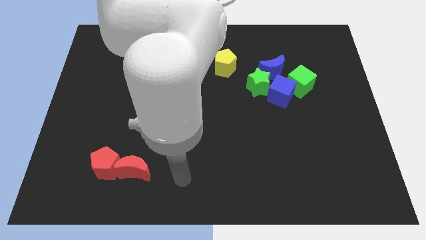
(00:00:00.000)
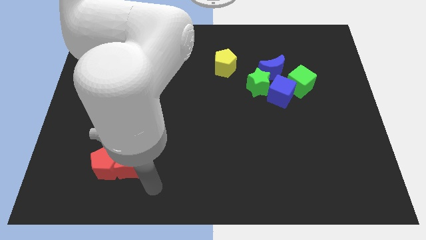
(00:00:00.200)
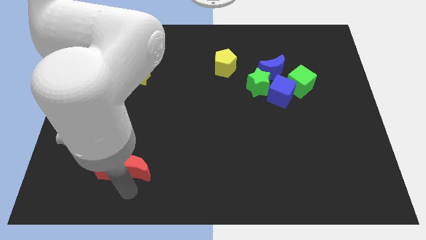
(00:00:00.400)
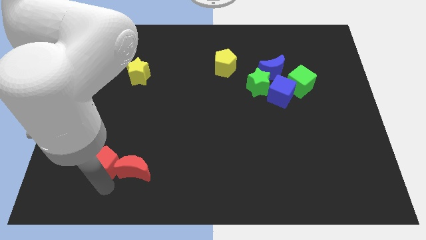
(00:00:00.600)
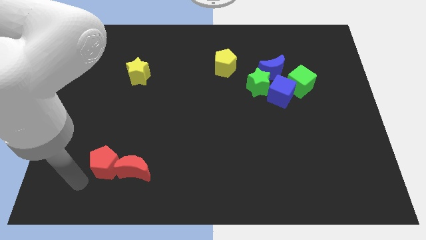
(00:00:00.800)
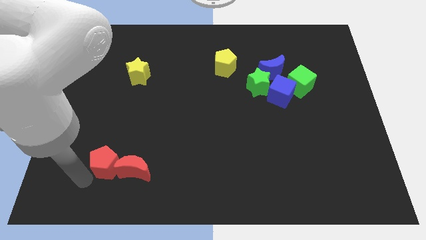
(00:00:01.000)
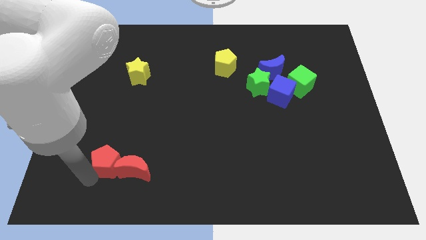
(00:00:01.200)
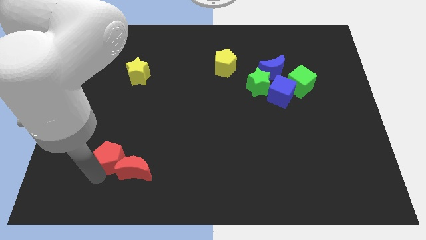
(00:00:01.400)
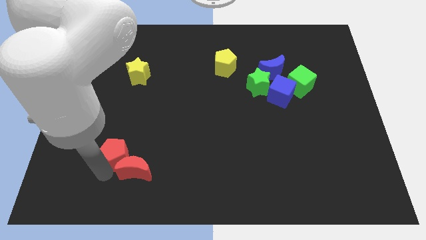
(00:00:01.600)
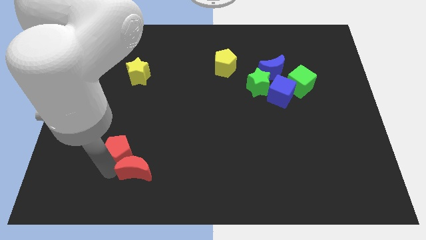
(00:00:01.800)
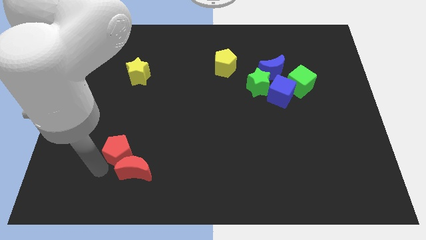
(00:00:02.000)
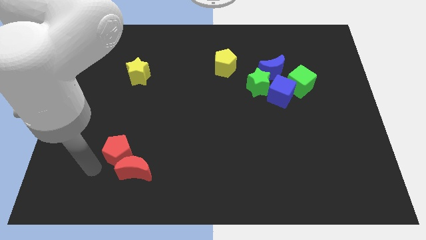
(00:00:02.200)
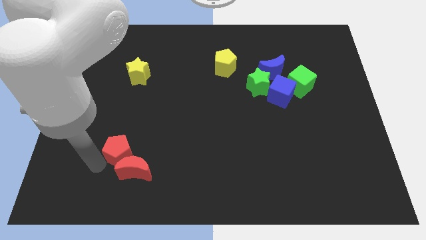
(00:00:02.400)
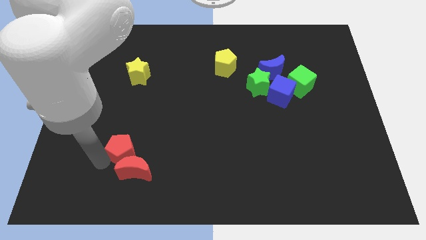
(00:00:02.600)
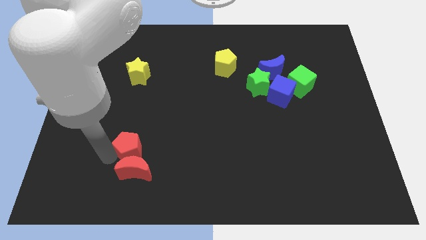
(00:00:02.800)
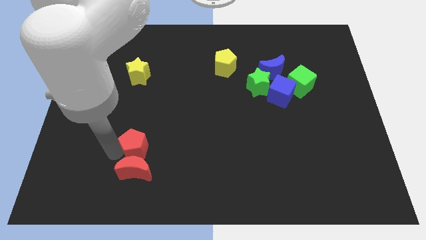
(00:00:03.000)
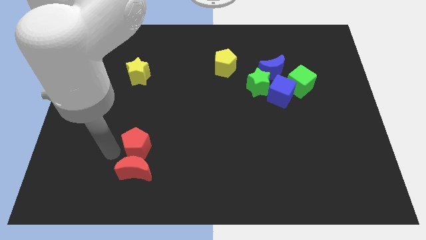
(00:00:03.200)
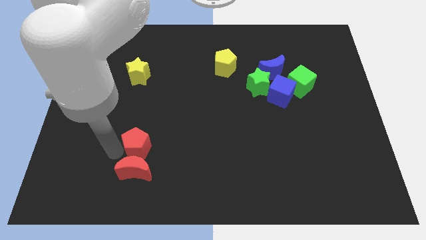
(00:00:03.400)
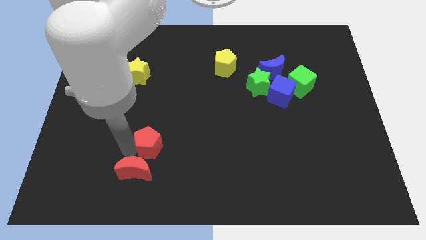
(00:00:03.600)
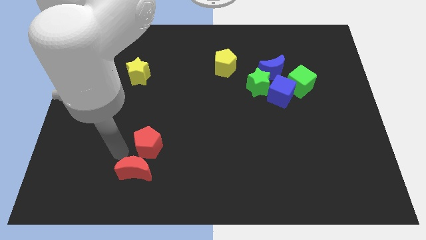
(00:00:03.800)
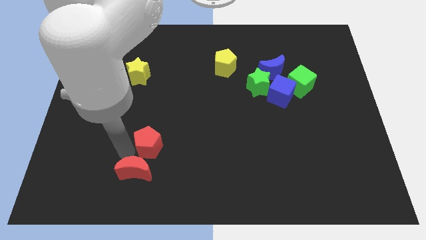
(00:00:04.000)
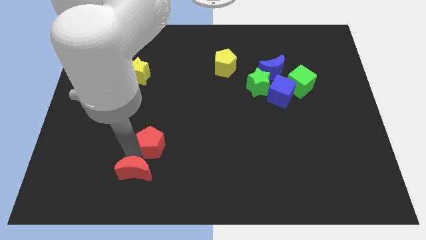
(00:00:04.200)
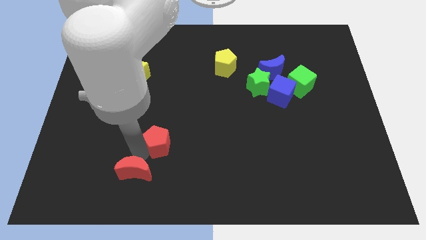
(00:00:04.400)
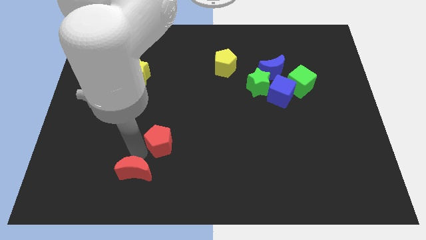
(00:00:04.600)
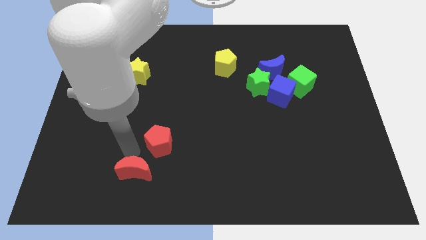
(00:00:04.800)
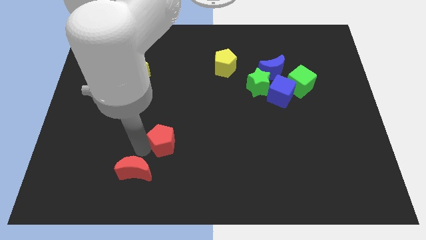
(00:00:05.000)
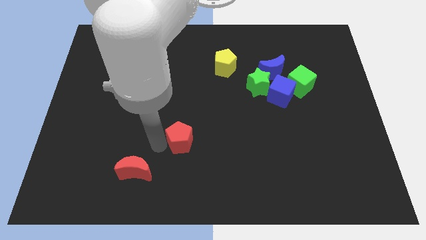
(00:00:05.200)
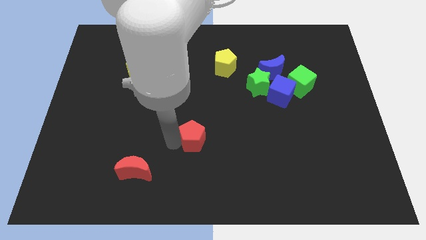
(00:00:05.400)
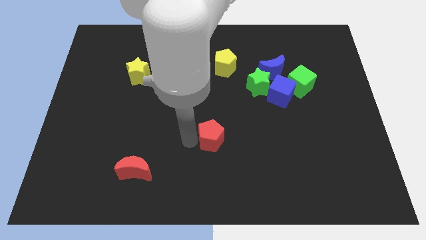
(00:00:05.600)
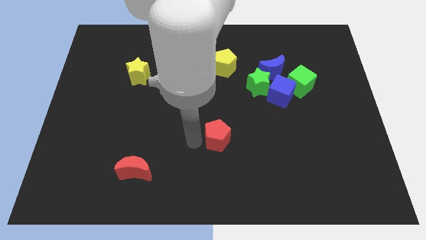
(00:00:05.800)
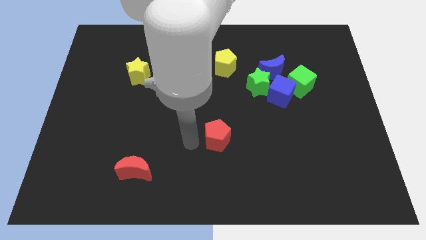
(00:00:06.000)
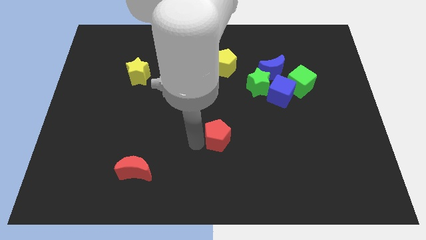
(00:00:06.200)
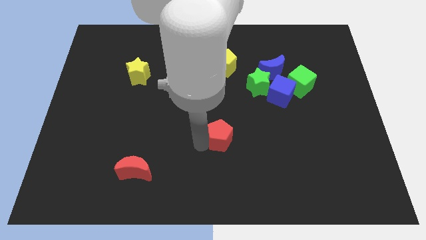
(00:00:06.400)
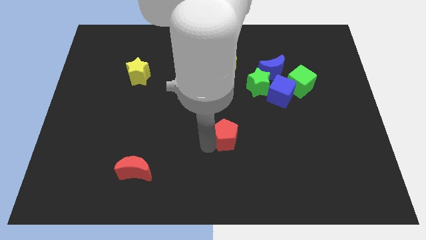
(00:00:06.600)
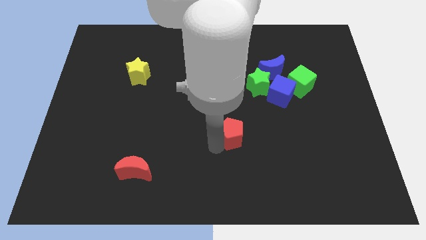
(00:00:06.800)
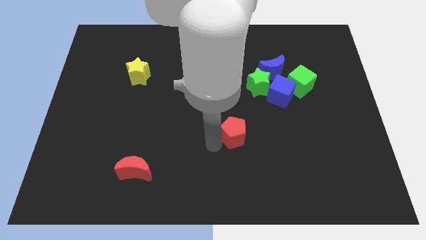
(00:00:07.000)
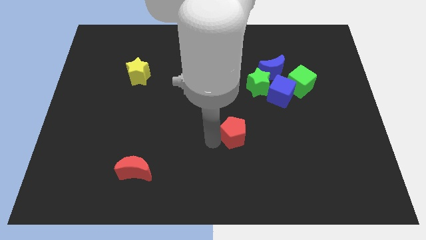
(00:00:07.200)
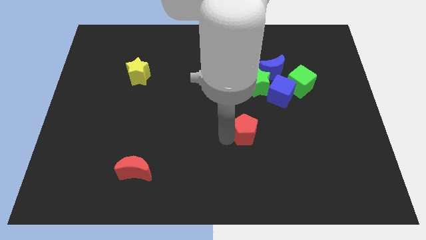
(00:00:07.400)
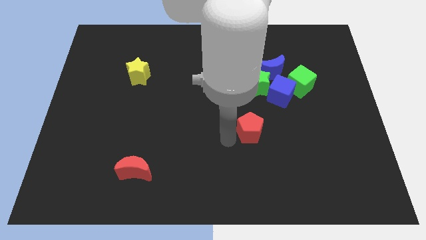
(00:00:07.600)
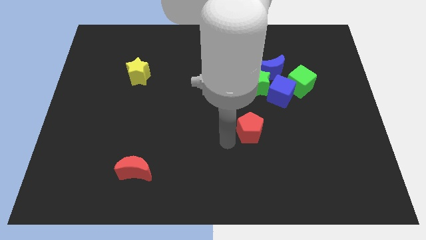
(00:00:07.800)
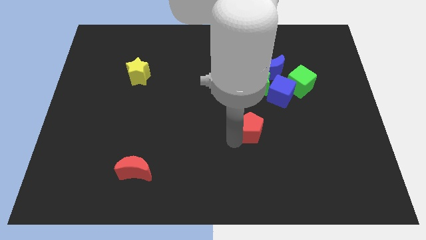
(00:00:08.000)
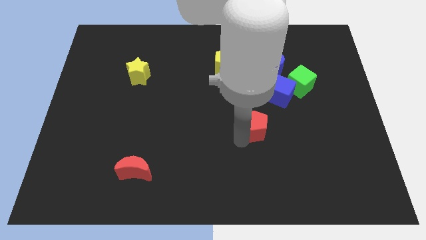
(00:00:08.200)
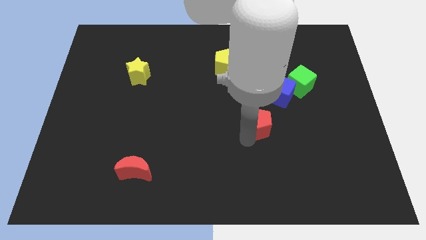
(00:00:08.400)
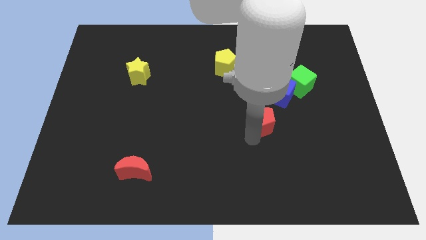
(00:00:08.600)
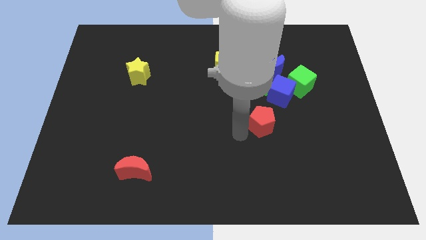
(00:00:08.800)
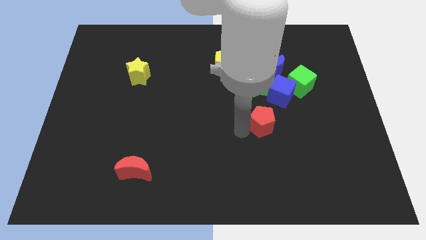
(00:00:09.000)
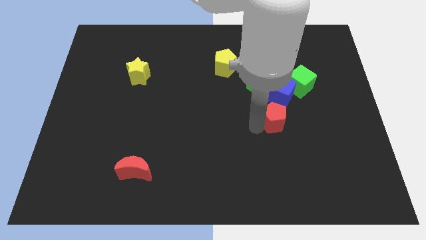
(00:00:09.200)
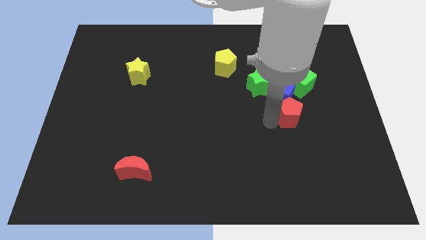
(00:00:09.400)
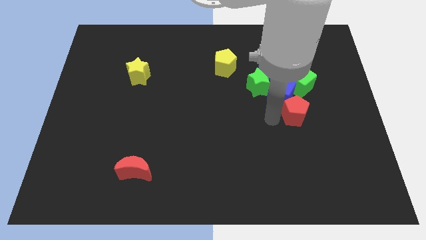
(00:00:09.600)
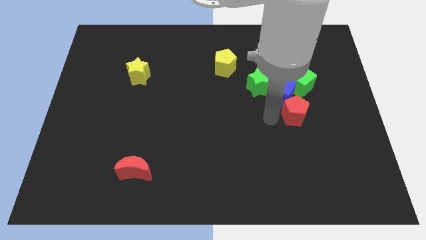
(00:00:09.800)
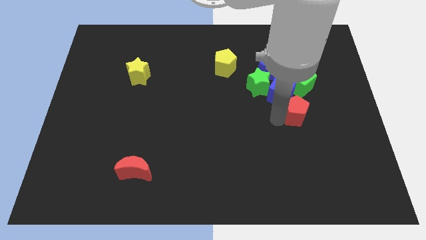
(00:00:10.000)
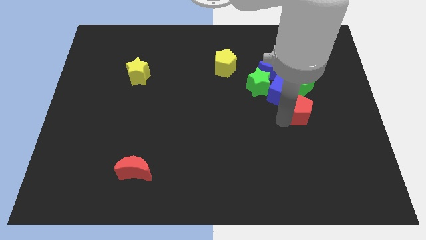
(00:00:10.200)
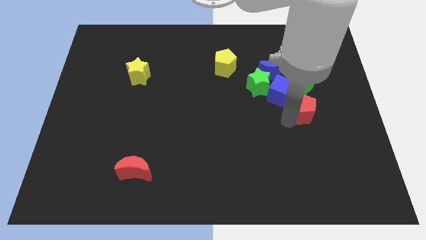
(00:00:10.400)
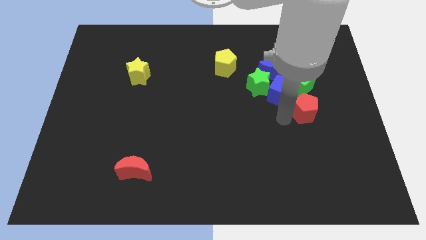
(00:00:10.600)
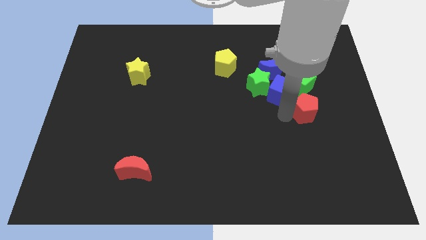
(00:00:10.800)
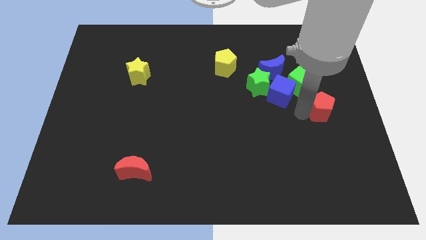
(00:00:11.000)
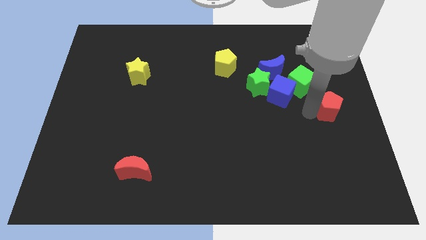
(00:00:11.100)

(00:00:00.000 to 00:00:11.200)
push the red pentagon to the right side

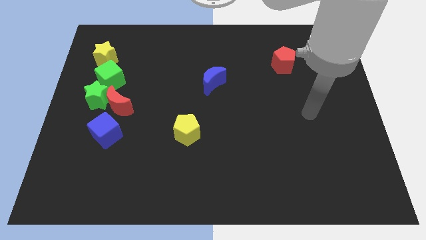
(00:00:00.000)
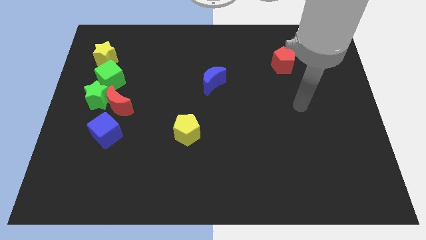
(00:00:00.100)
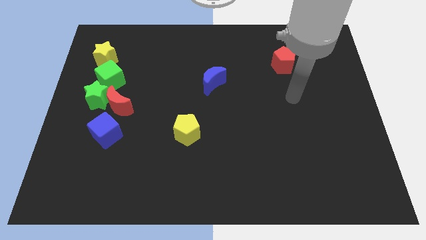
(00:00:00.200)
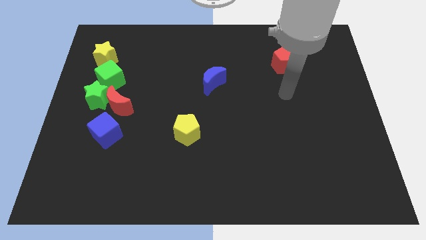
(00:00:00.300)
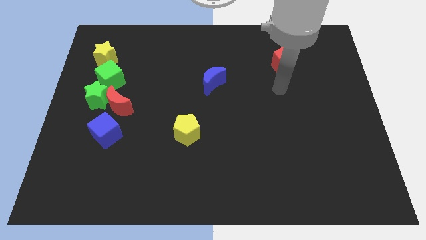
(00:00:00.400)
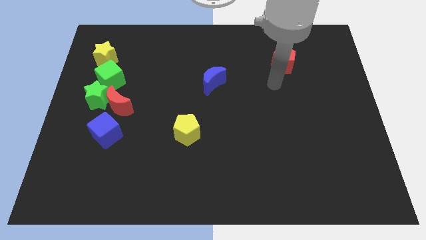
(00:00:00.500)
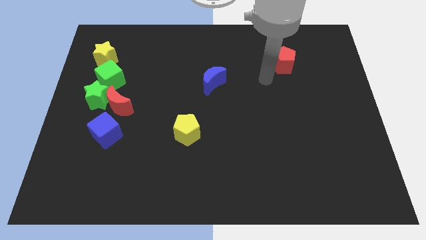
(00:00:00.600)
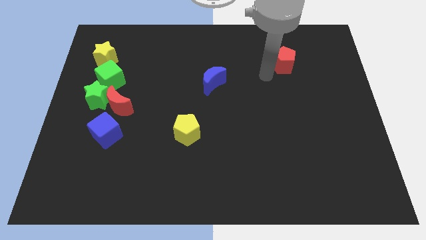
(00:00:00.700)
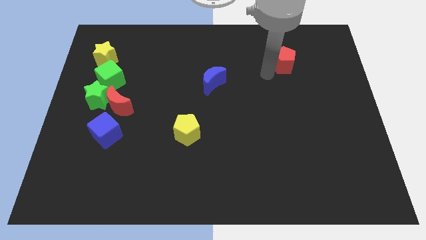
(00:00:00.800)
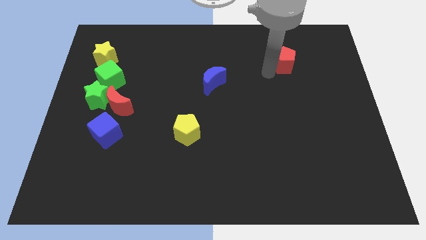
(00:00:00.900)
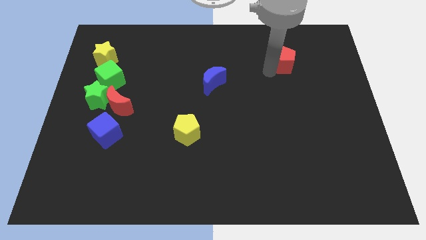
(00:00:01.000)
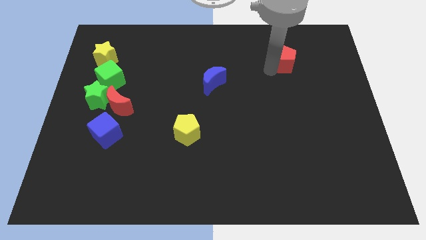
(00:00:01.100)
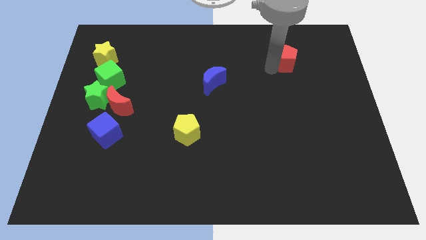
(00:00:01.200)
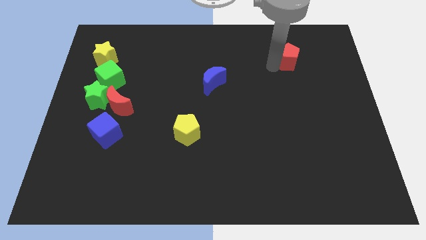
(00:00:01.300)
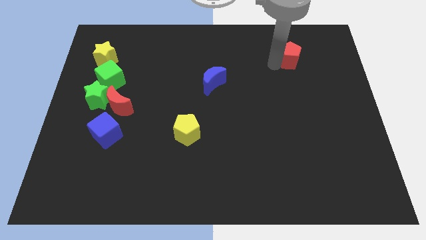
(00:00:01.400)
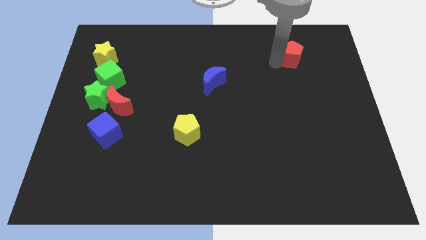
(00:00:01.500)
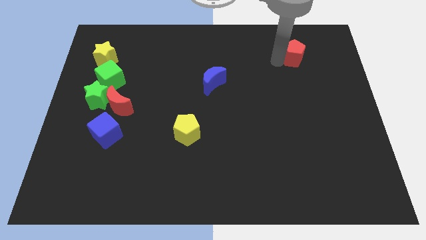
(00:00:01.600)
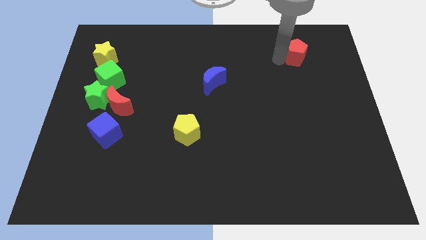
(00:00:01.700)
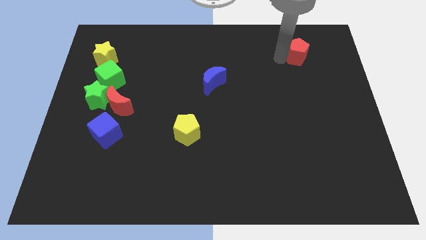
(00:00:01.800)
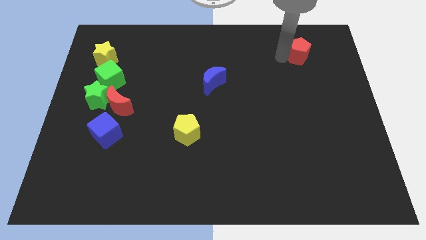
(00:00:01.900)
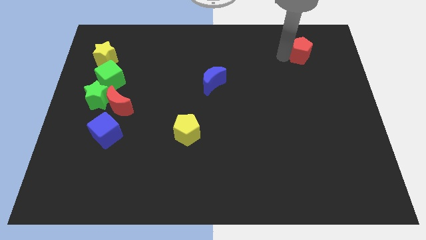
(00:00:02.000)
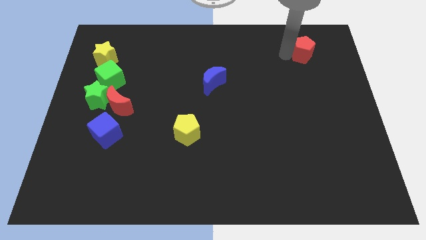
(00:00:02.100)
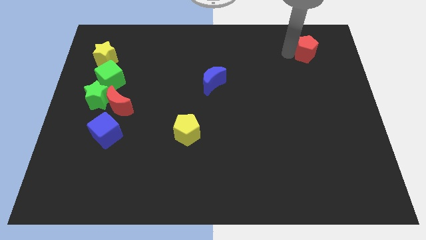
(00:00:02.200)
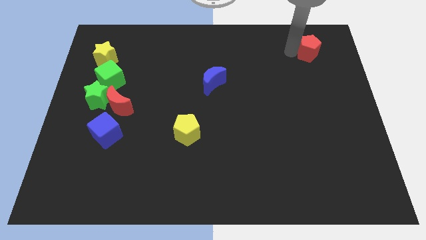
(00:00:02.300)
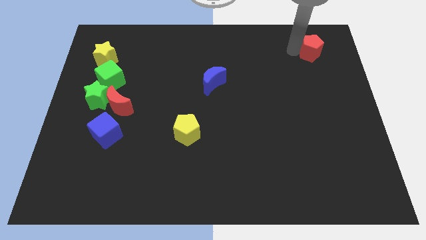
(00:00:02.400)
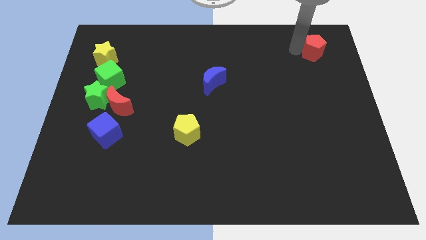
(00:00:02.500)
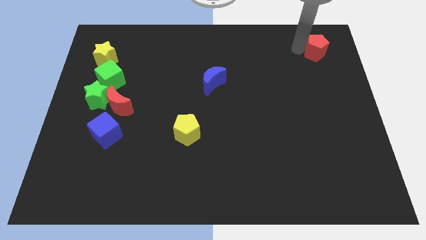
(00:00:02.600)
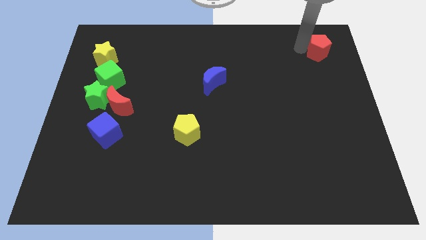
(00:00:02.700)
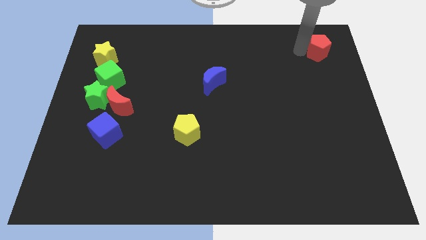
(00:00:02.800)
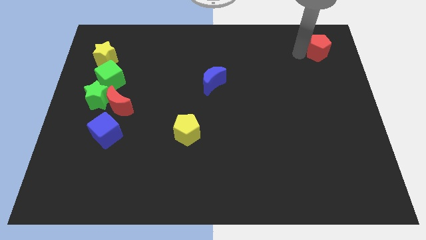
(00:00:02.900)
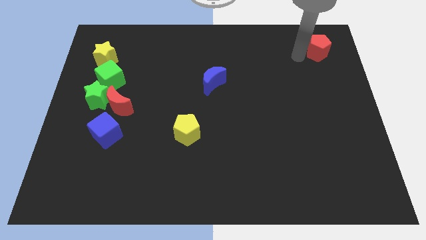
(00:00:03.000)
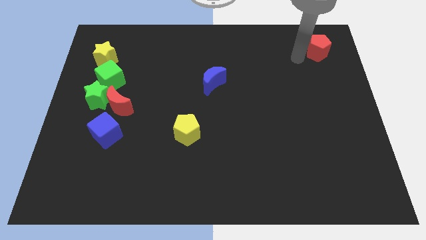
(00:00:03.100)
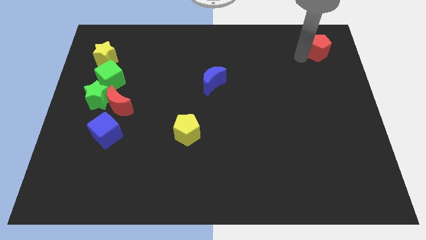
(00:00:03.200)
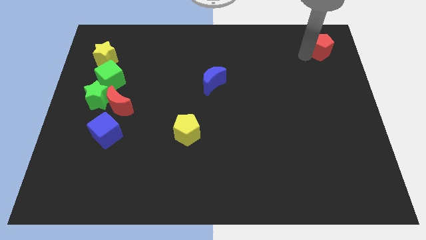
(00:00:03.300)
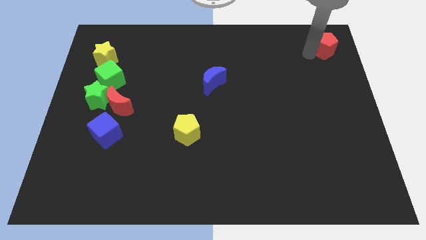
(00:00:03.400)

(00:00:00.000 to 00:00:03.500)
put the red pentagon to the top right
